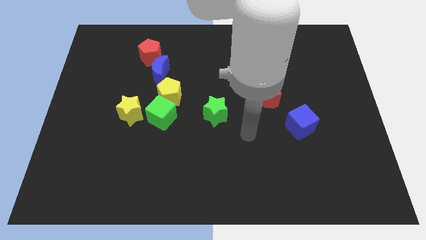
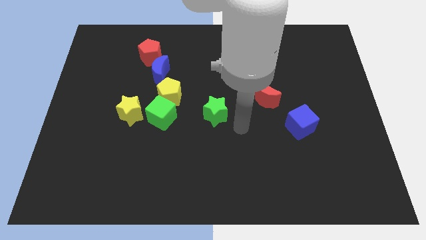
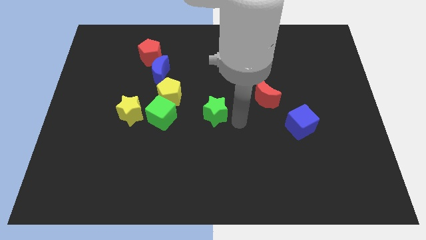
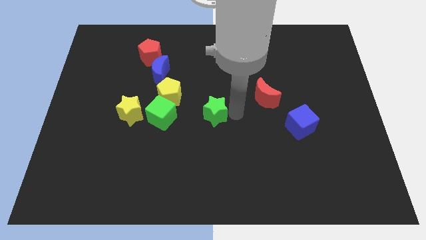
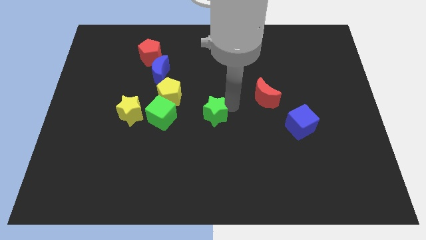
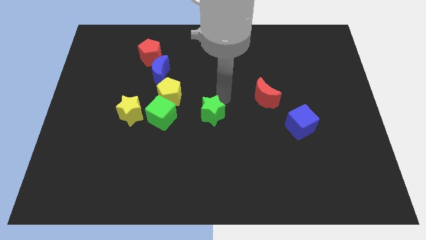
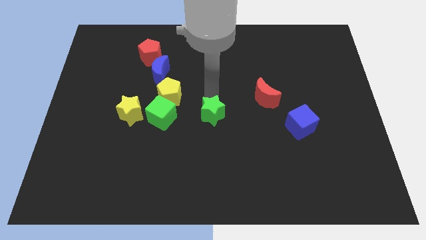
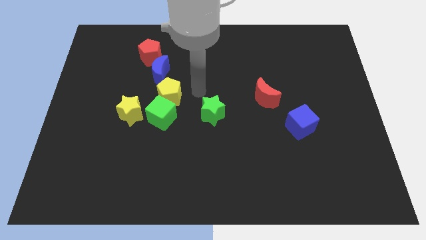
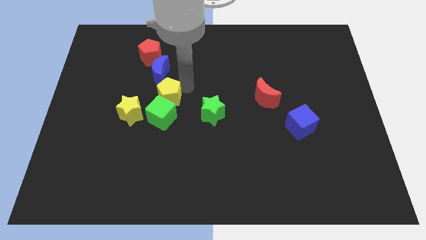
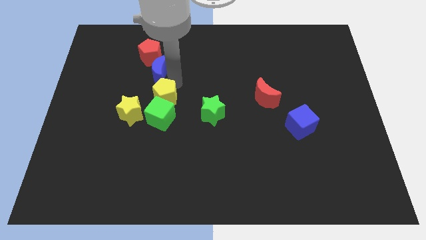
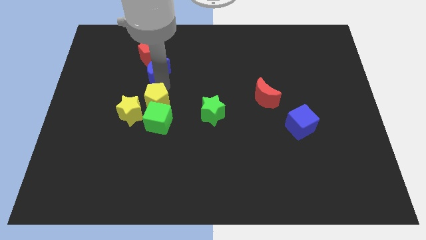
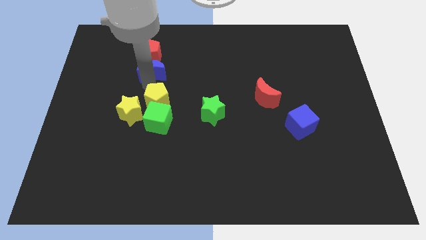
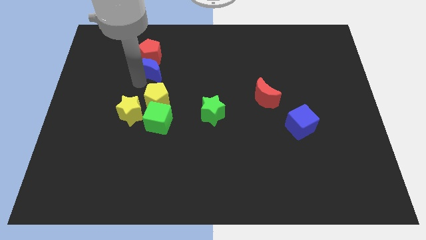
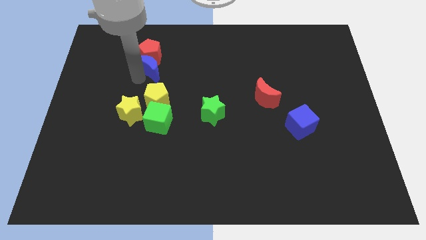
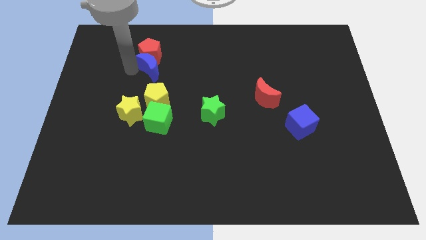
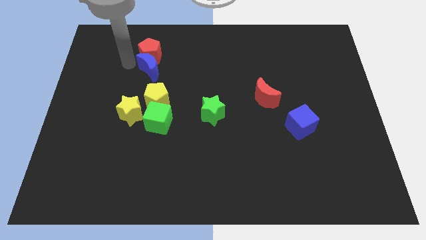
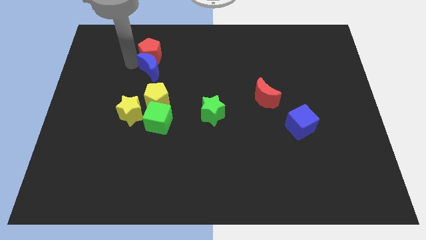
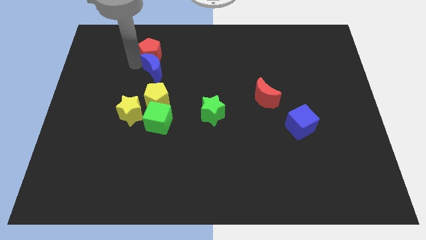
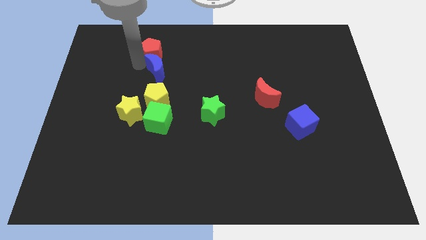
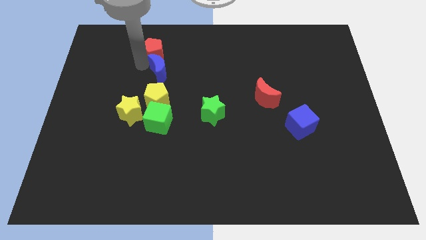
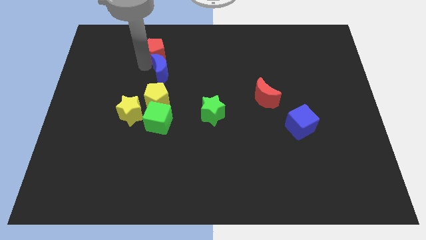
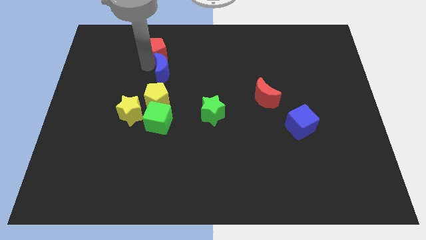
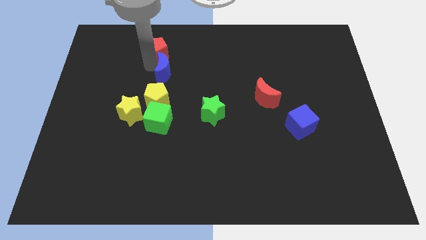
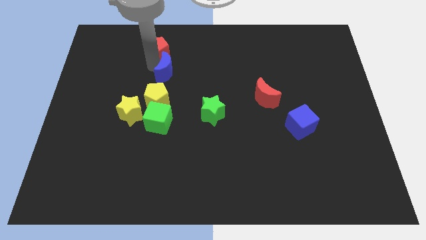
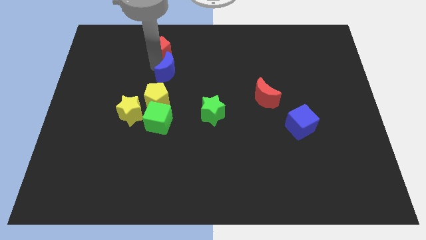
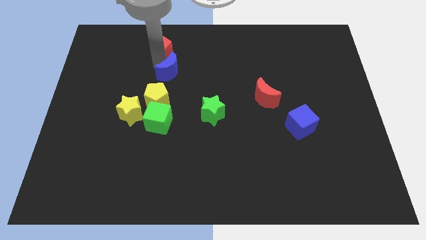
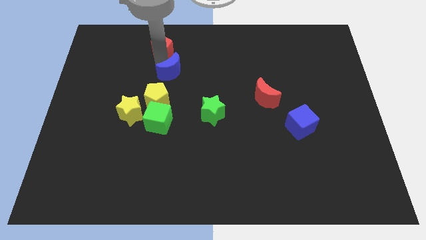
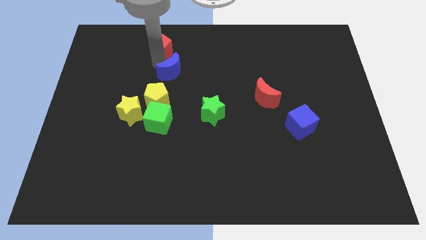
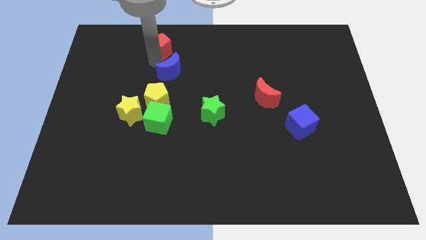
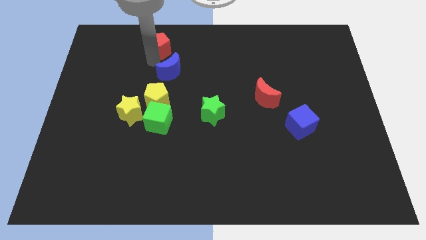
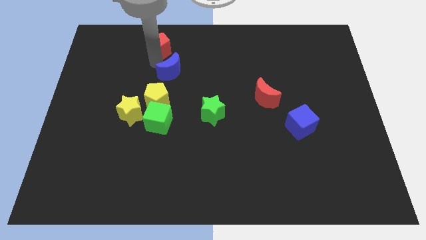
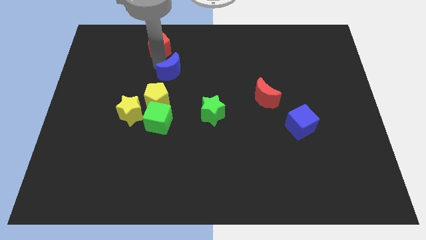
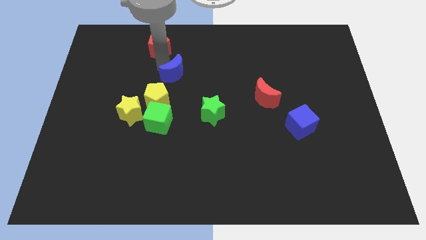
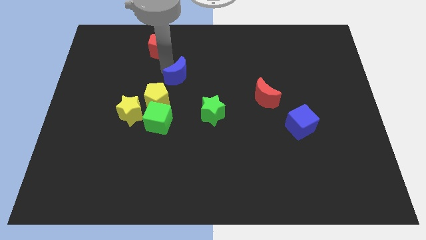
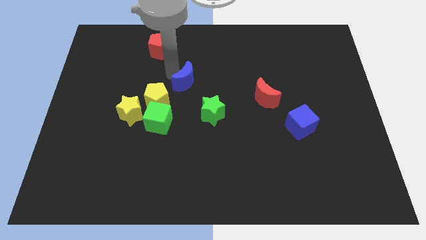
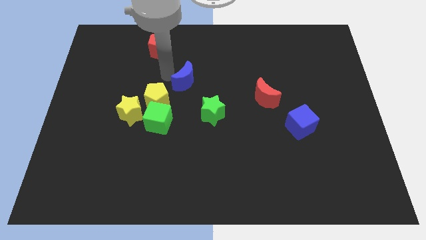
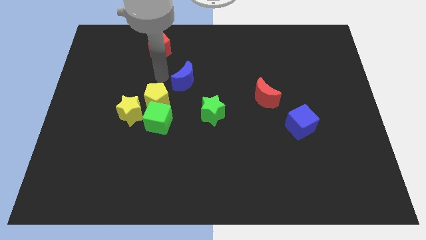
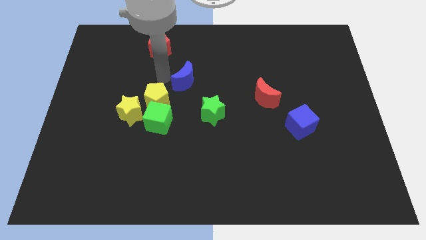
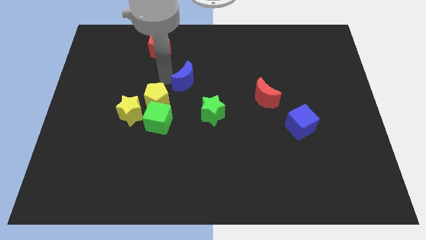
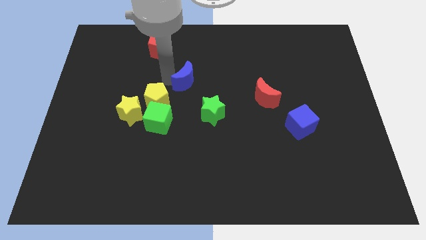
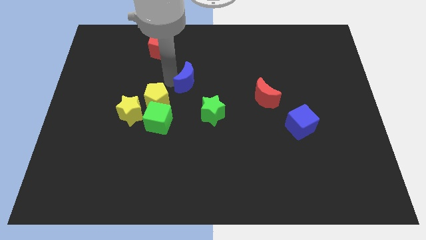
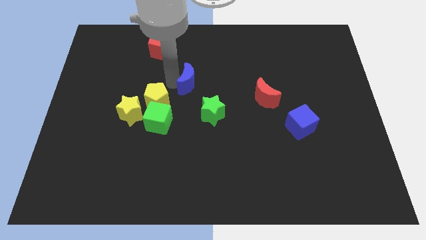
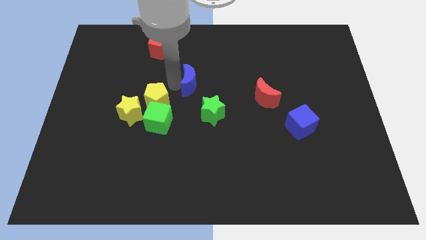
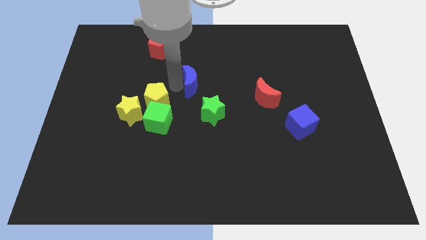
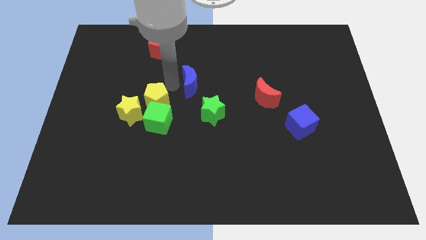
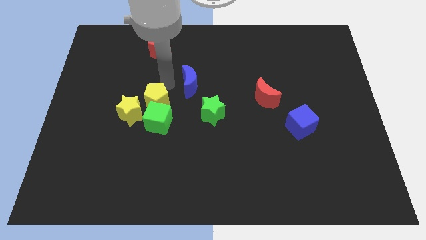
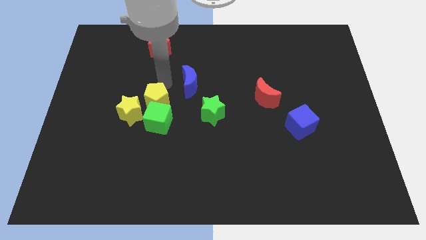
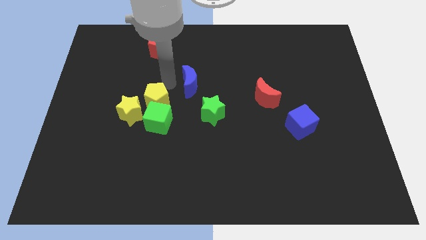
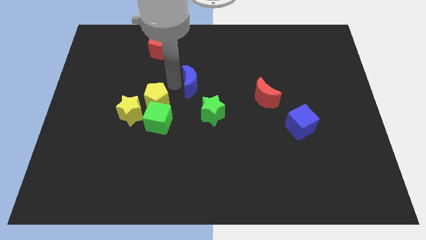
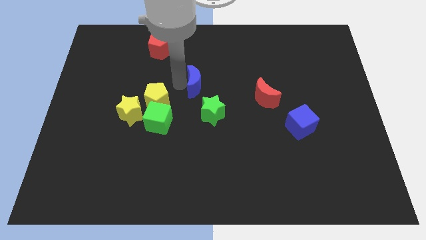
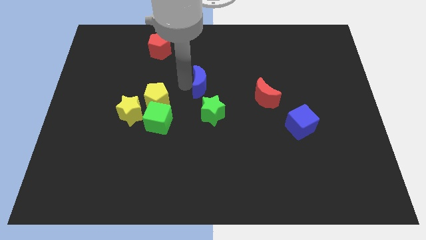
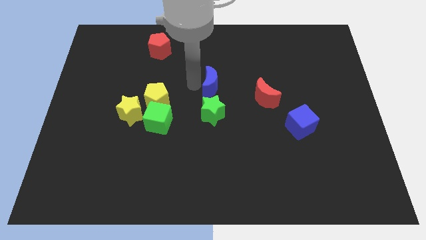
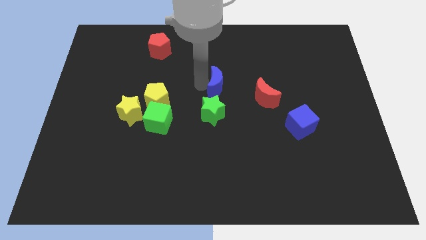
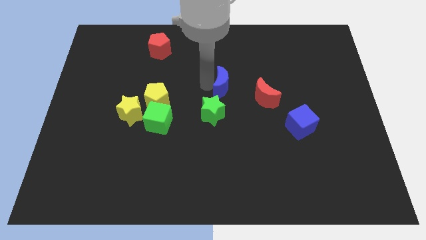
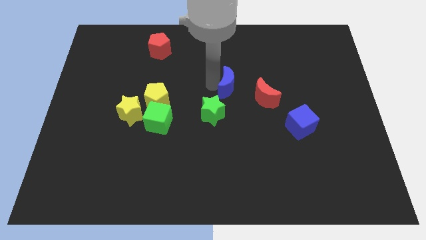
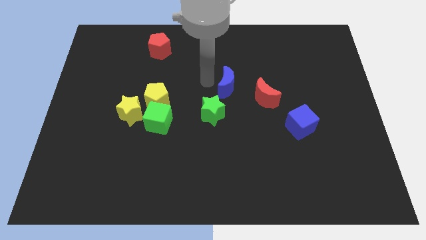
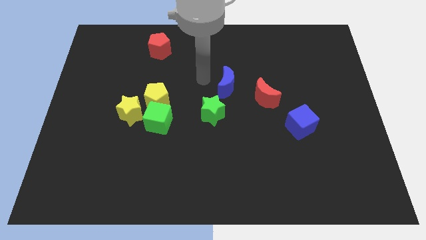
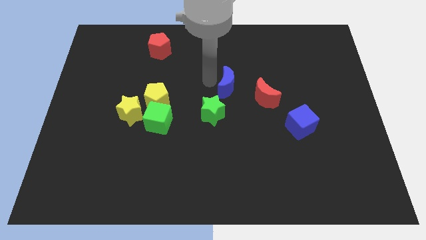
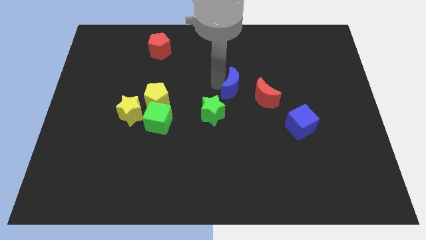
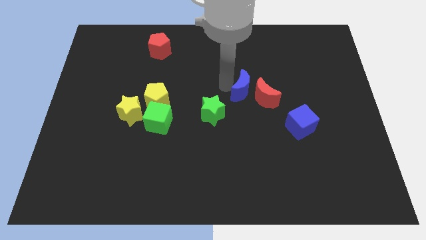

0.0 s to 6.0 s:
slide the blue moon towards the red moon

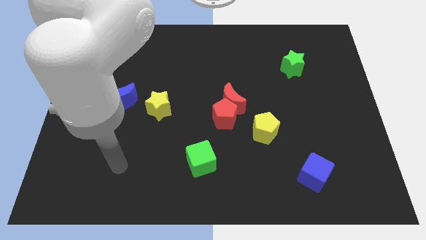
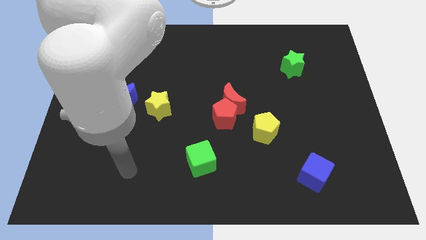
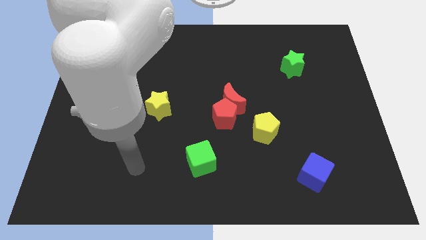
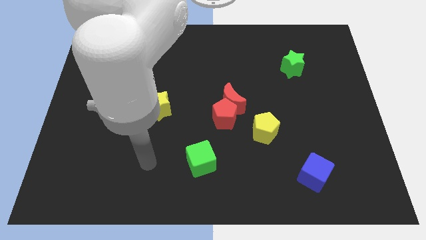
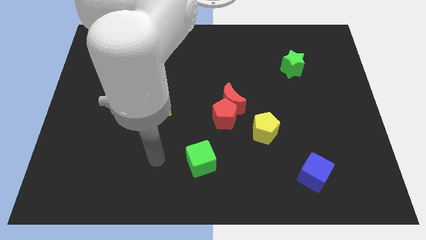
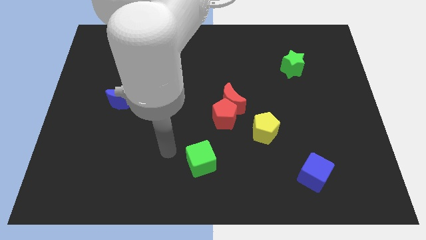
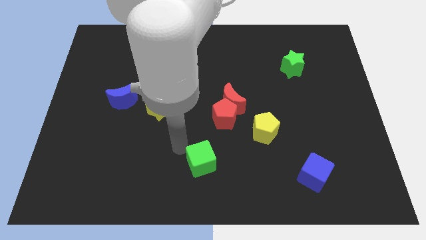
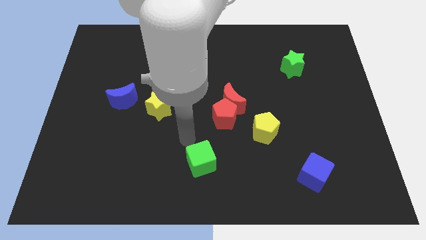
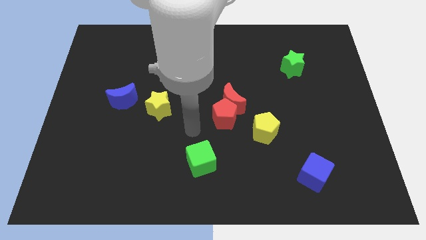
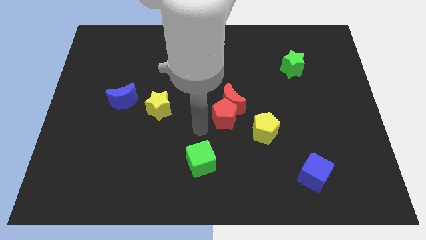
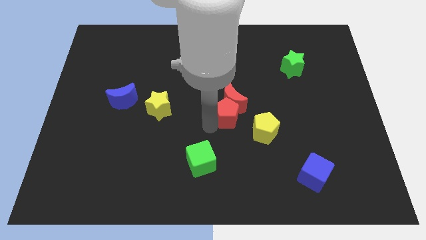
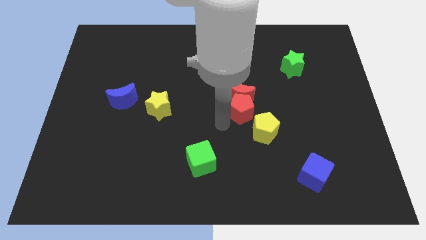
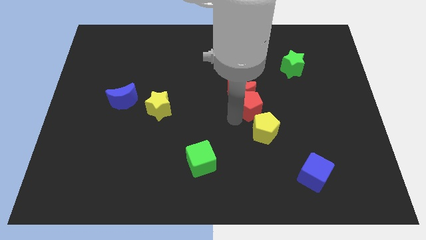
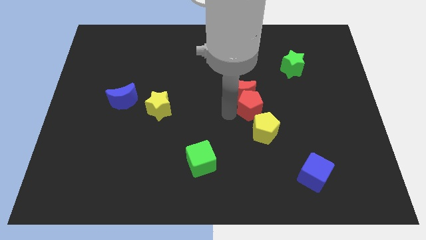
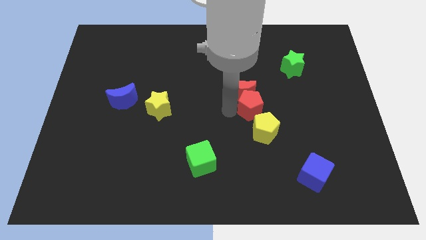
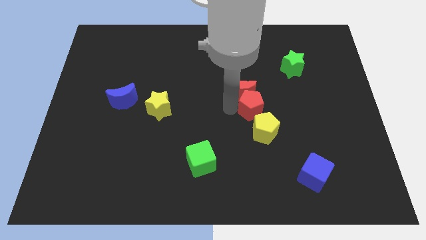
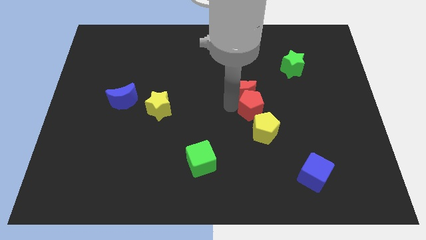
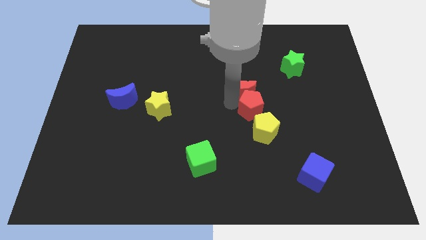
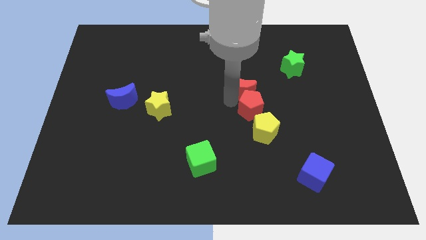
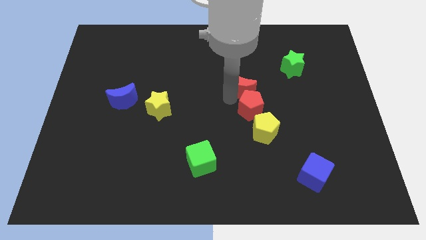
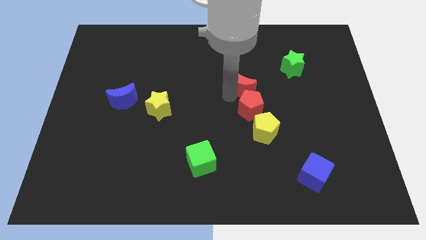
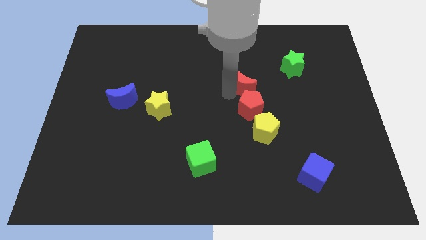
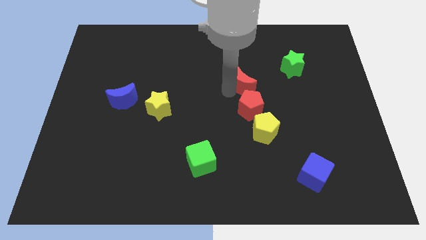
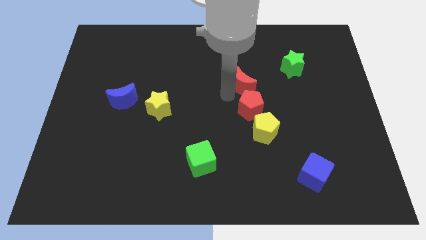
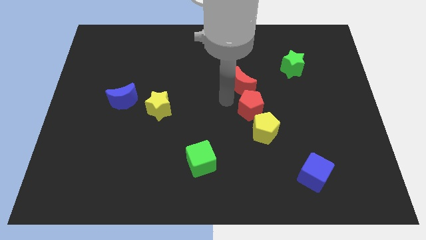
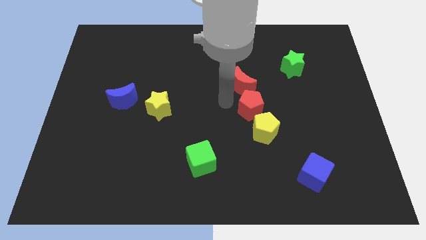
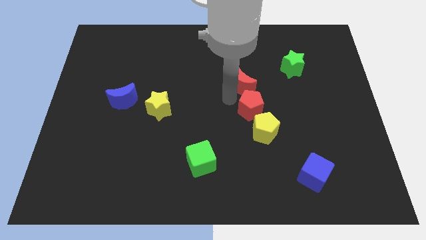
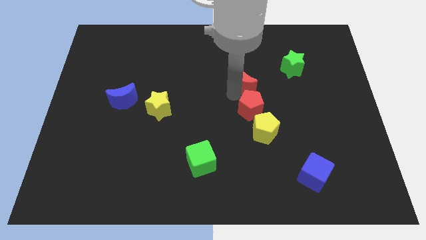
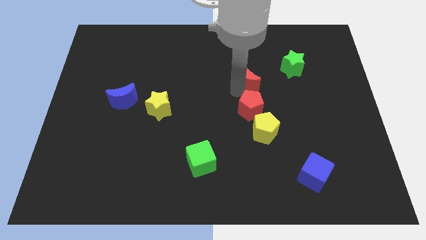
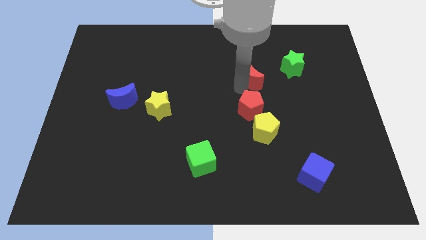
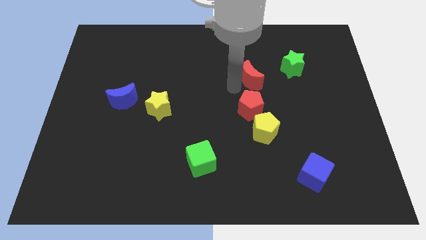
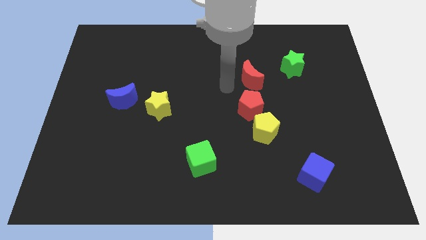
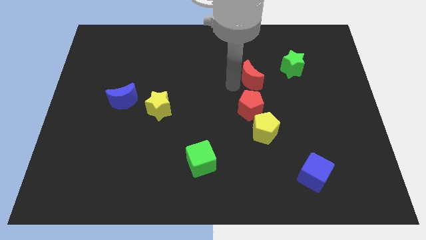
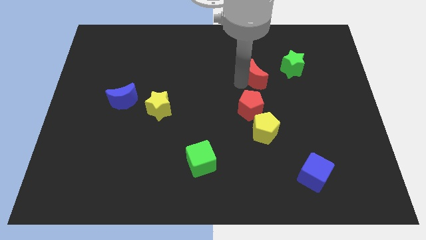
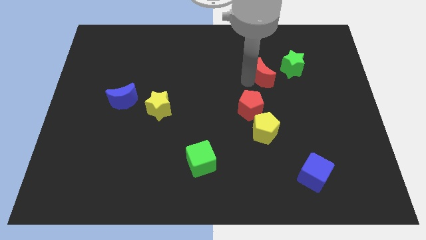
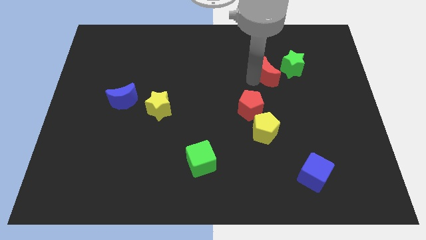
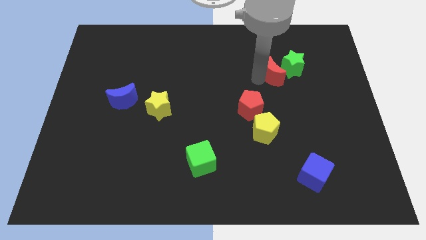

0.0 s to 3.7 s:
move the red moon close to the green star
